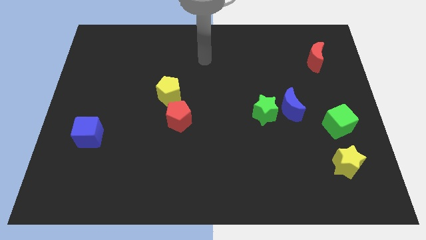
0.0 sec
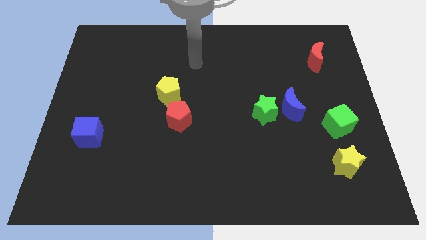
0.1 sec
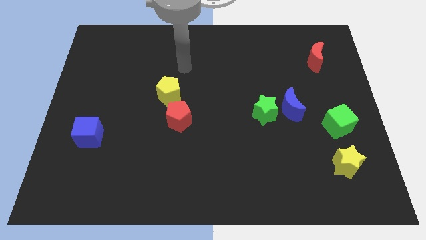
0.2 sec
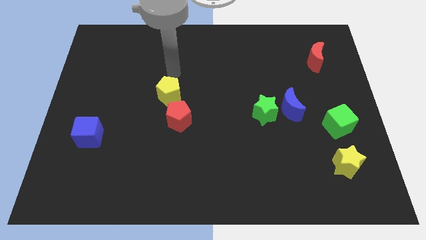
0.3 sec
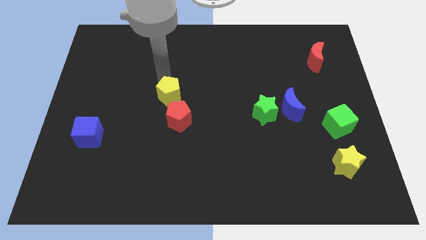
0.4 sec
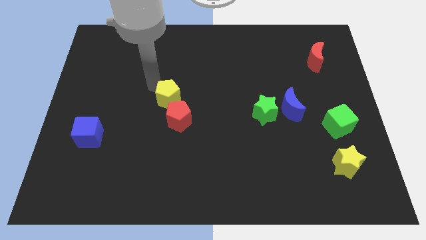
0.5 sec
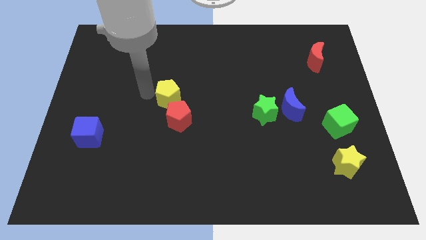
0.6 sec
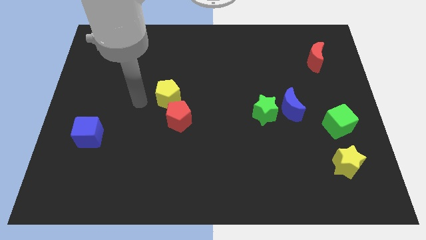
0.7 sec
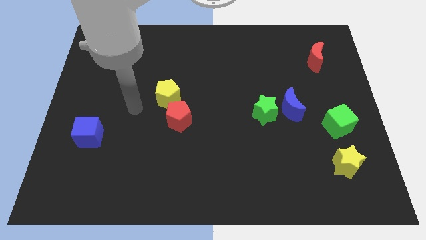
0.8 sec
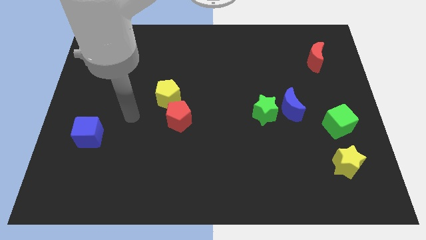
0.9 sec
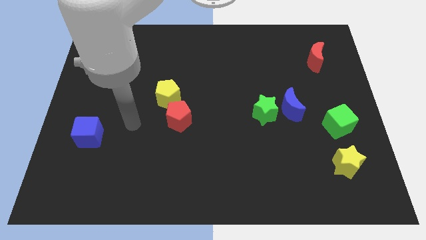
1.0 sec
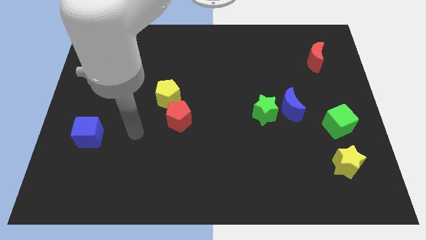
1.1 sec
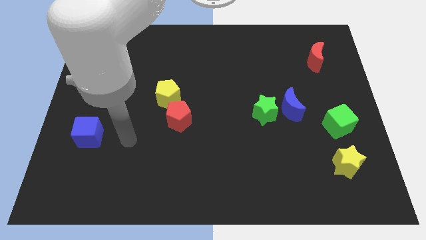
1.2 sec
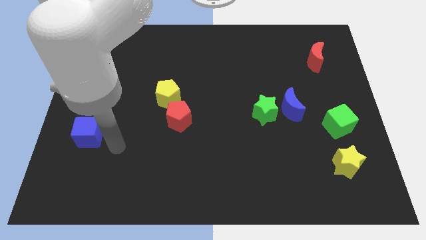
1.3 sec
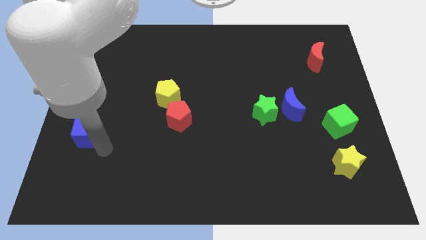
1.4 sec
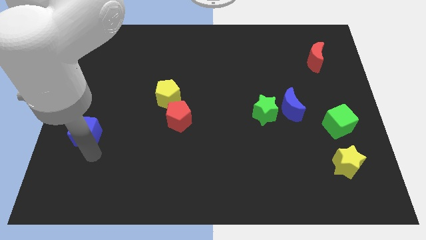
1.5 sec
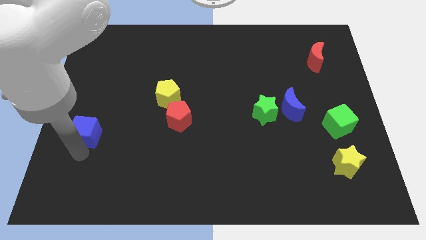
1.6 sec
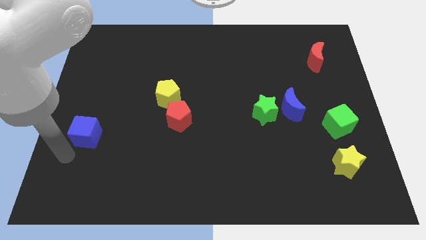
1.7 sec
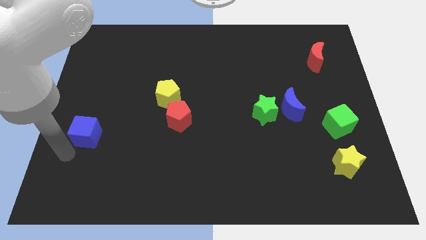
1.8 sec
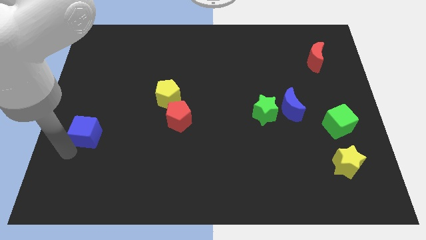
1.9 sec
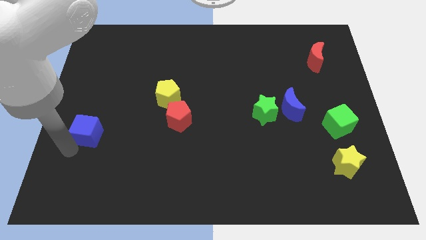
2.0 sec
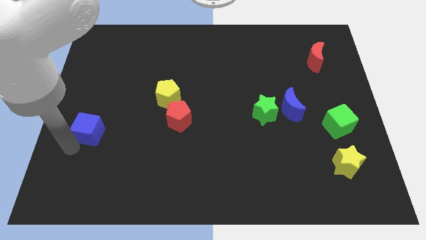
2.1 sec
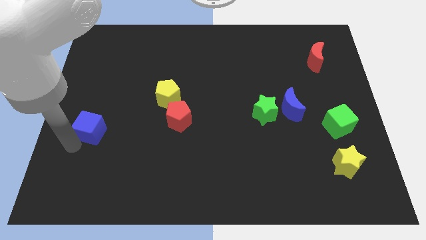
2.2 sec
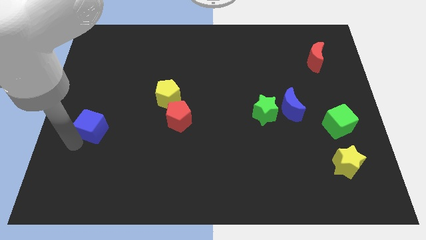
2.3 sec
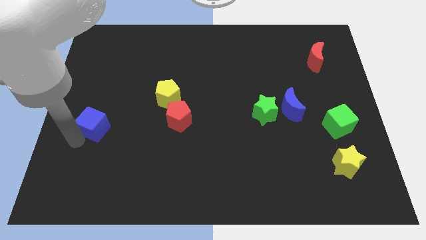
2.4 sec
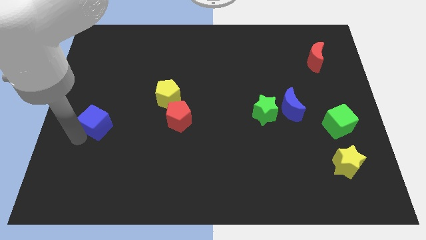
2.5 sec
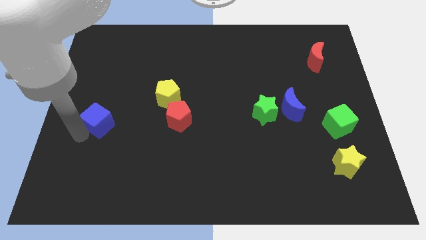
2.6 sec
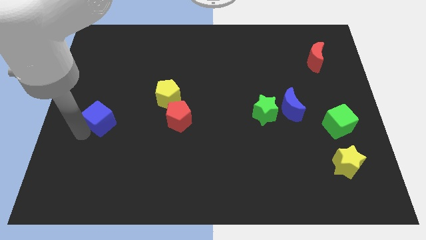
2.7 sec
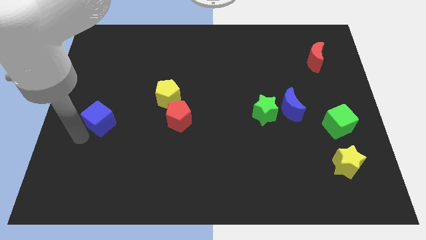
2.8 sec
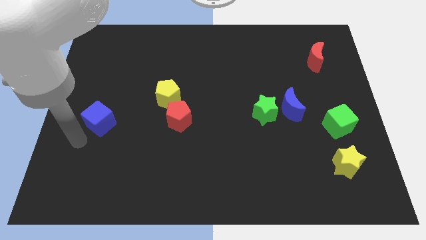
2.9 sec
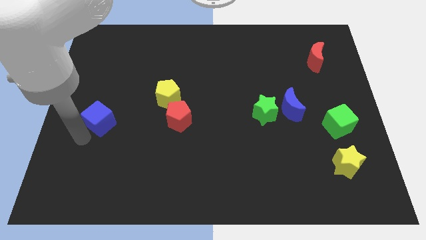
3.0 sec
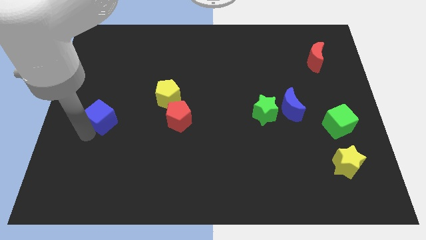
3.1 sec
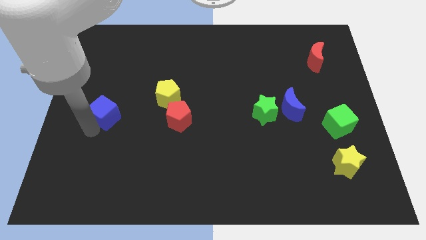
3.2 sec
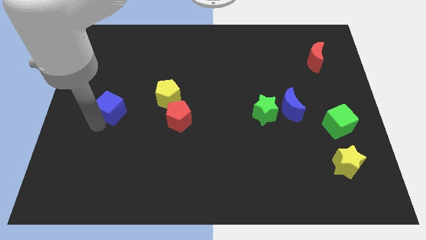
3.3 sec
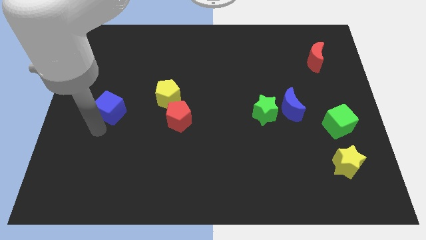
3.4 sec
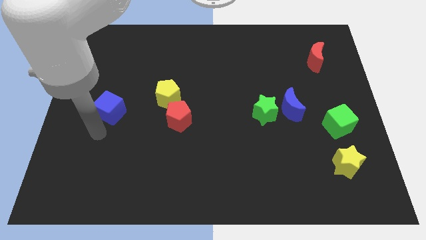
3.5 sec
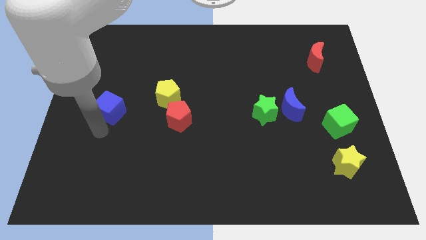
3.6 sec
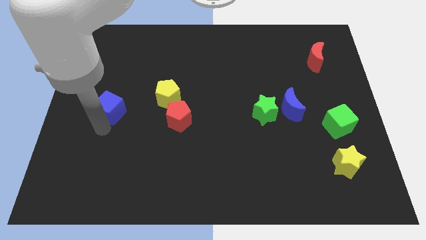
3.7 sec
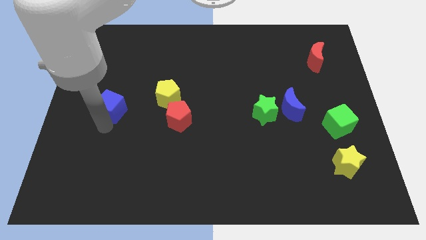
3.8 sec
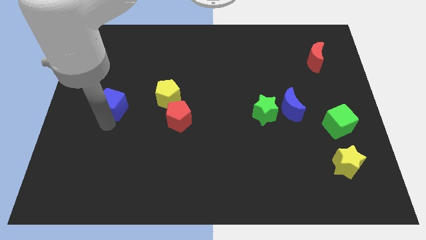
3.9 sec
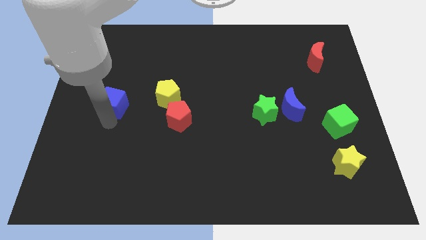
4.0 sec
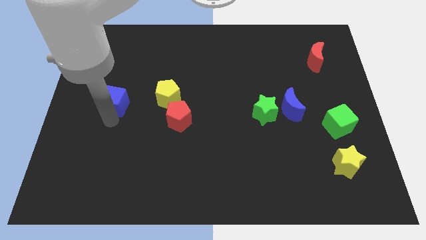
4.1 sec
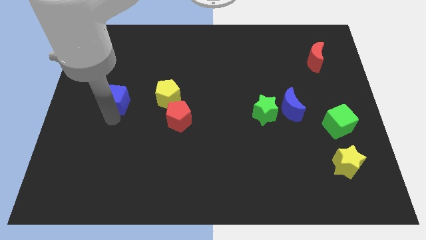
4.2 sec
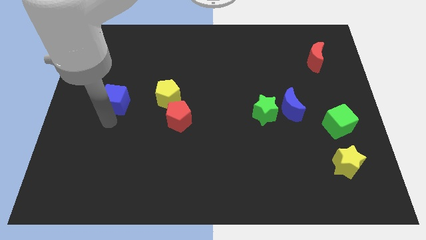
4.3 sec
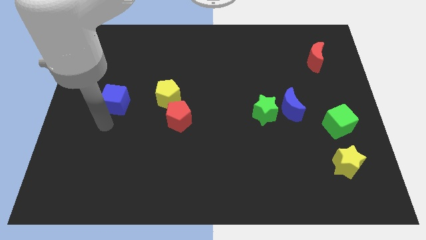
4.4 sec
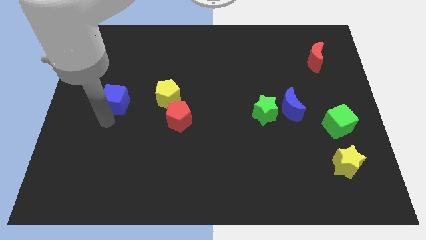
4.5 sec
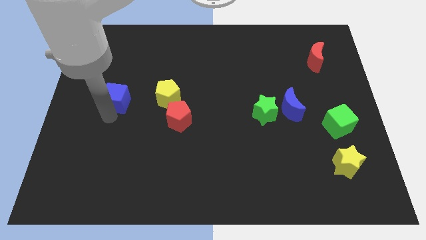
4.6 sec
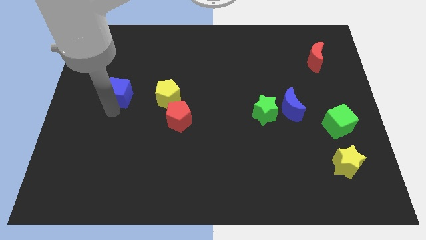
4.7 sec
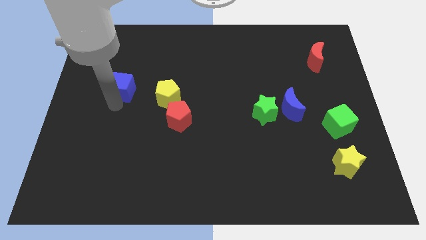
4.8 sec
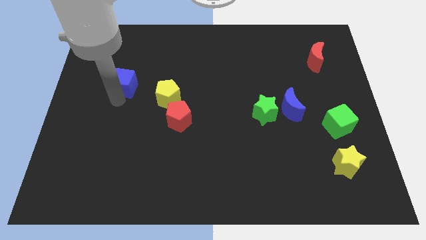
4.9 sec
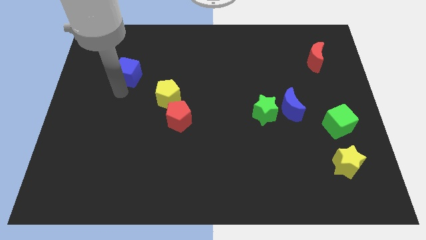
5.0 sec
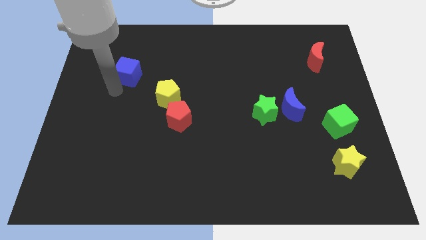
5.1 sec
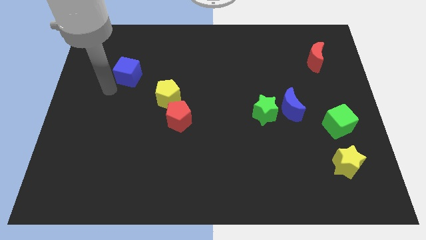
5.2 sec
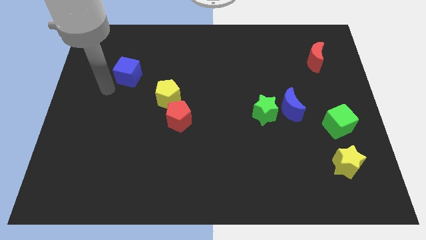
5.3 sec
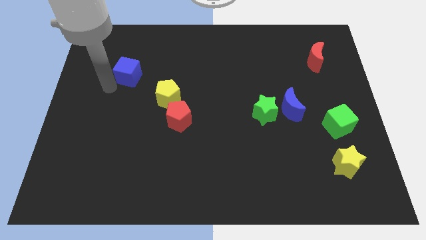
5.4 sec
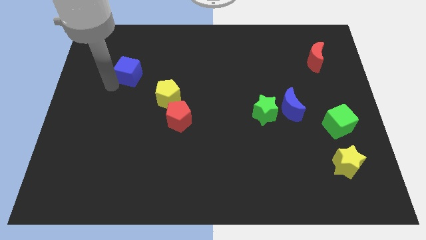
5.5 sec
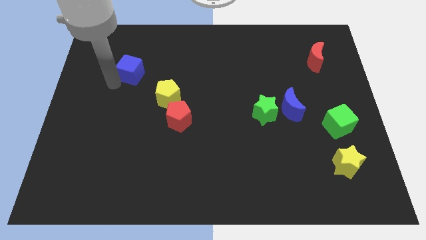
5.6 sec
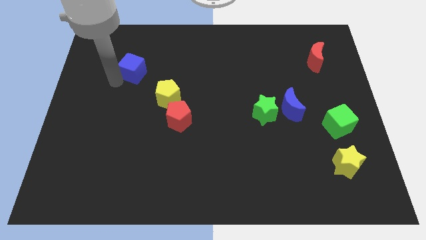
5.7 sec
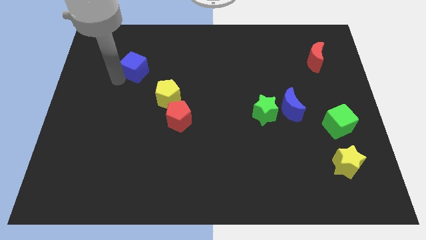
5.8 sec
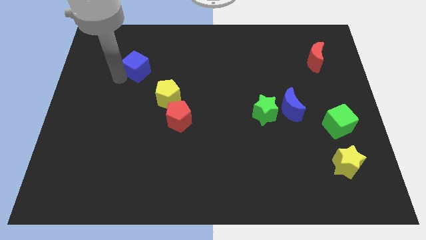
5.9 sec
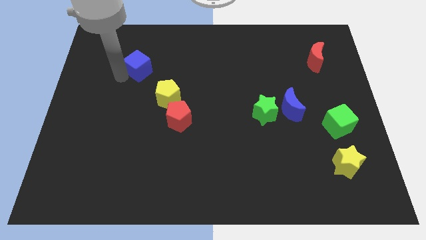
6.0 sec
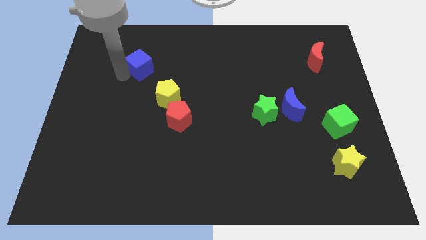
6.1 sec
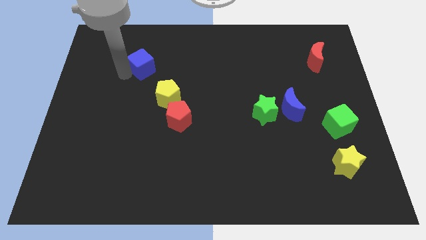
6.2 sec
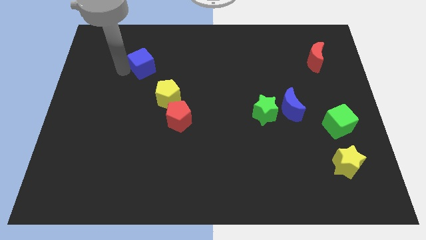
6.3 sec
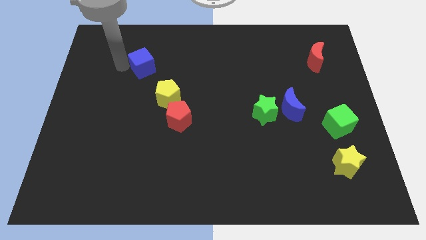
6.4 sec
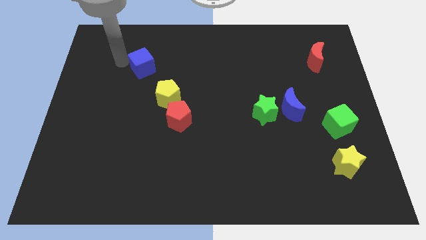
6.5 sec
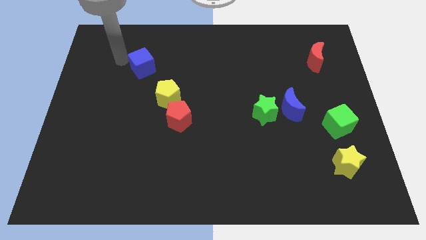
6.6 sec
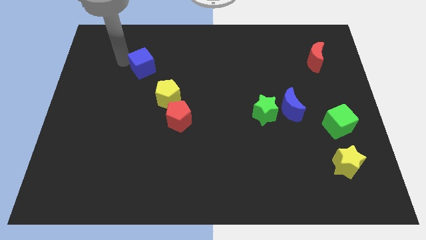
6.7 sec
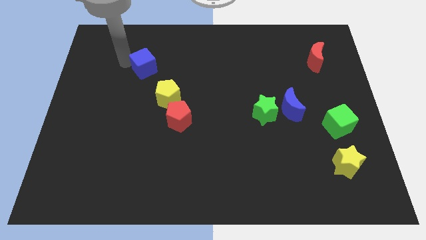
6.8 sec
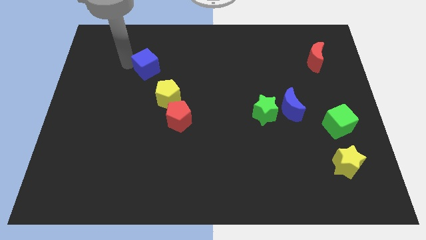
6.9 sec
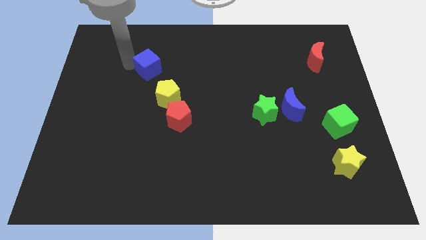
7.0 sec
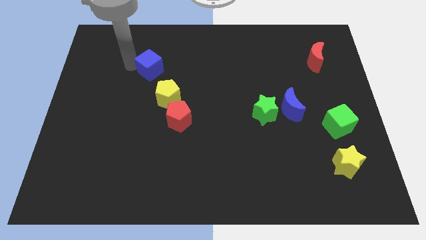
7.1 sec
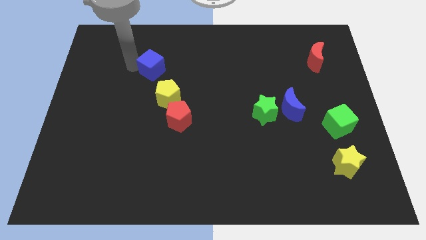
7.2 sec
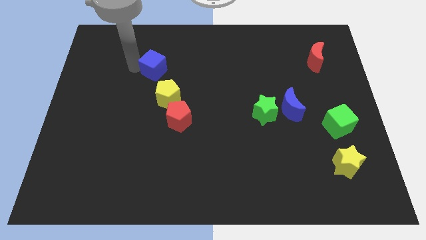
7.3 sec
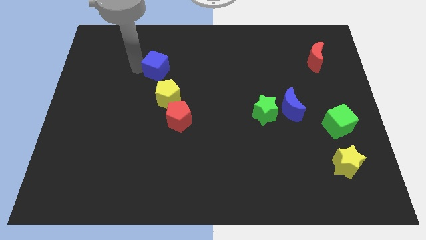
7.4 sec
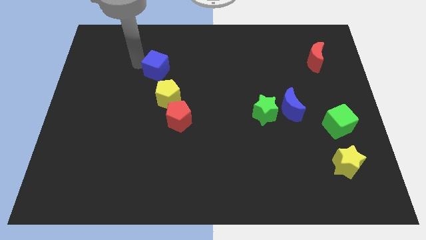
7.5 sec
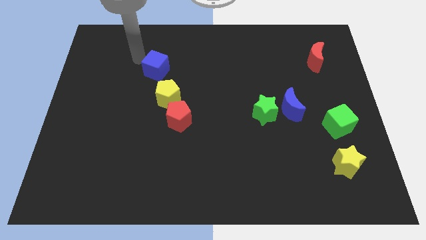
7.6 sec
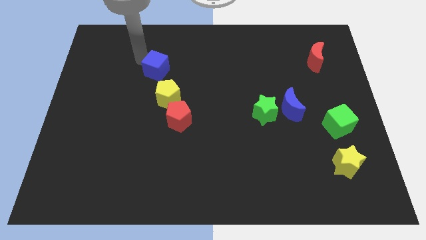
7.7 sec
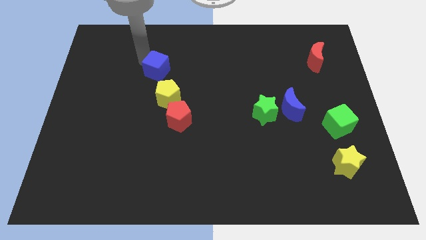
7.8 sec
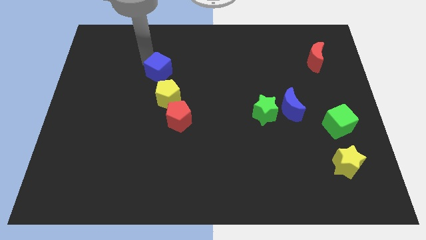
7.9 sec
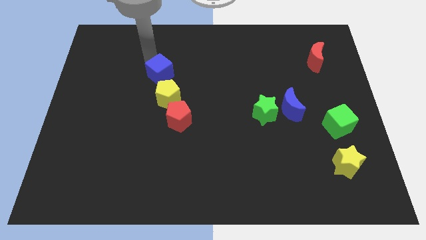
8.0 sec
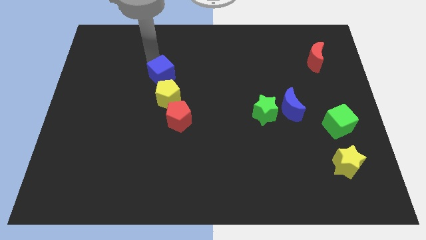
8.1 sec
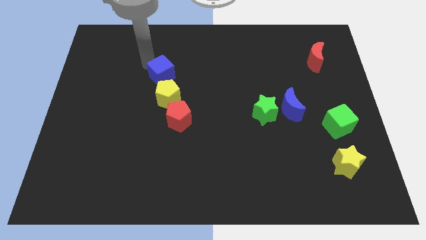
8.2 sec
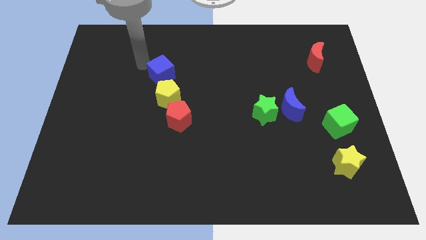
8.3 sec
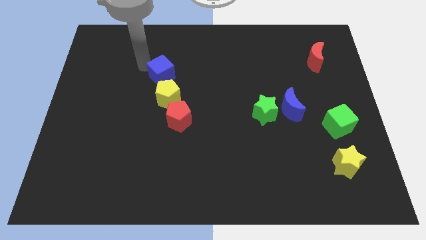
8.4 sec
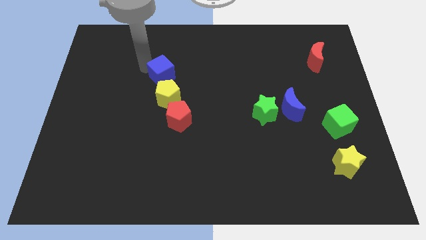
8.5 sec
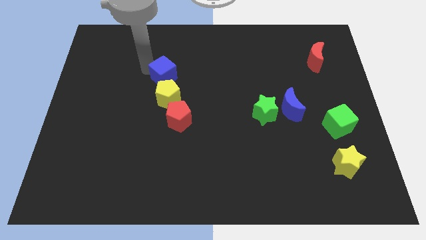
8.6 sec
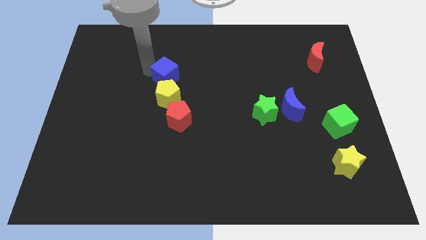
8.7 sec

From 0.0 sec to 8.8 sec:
put the blue cube to the top of the red pentagon
